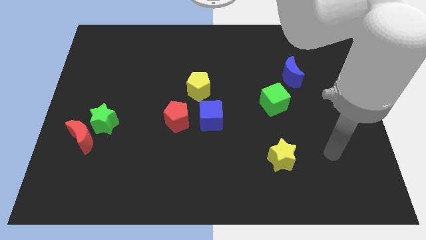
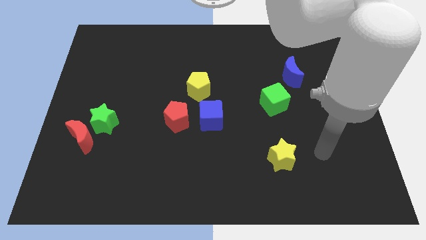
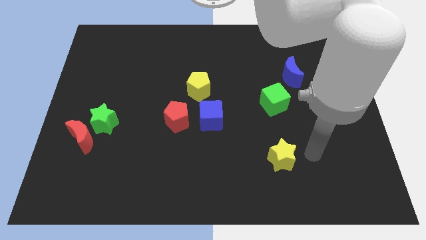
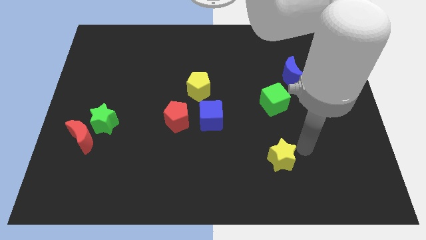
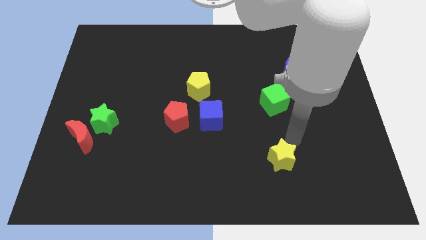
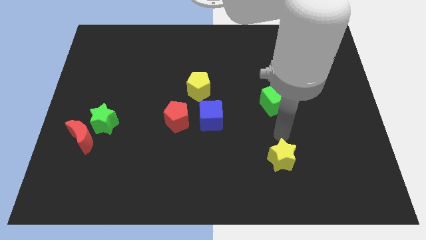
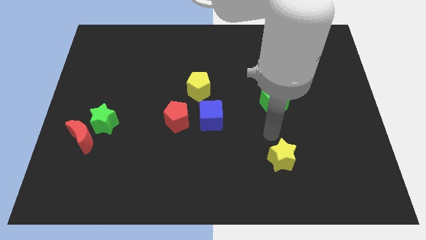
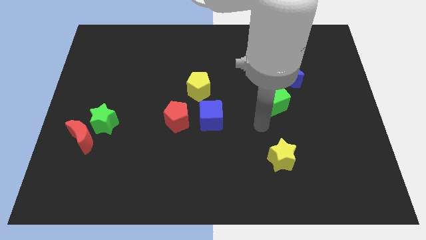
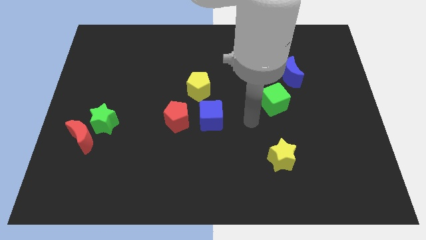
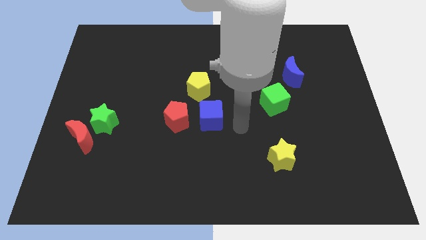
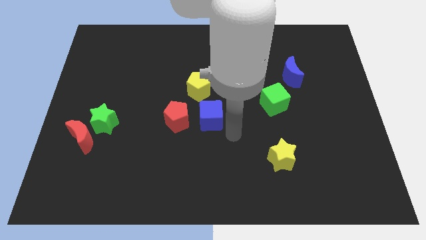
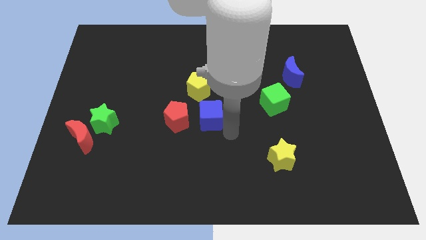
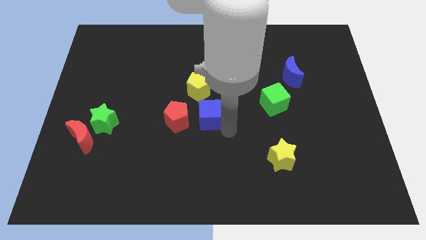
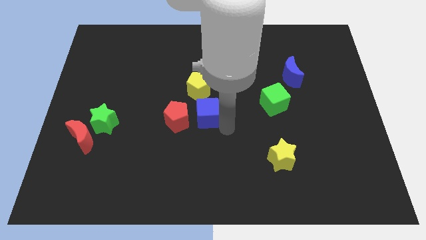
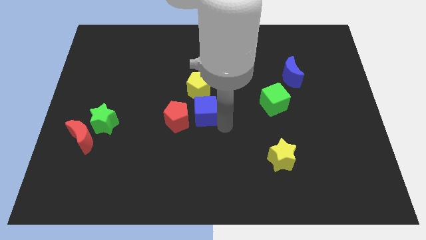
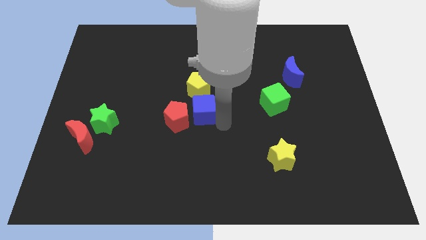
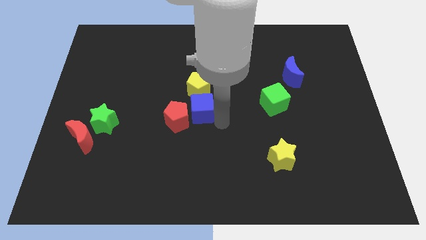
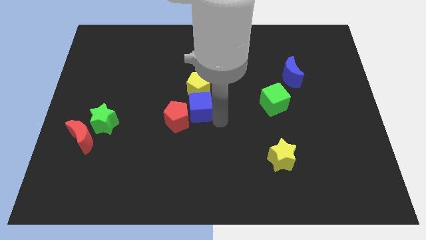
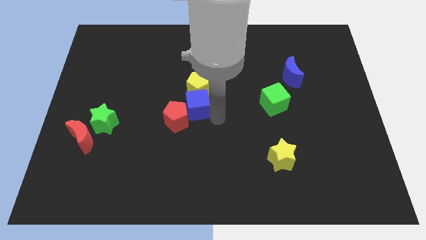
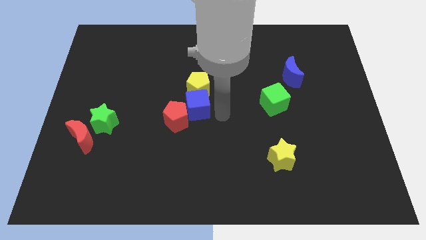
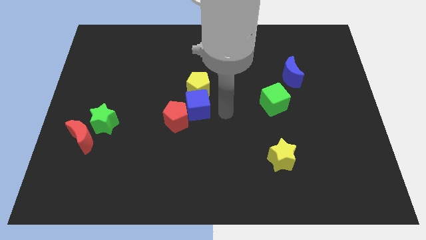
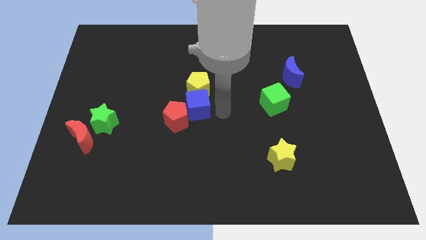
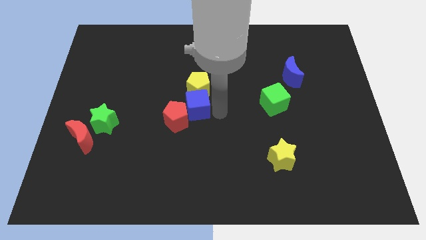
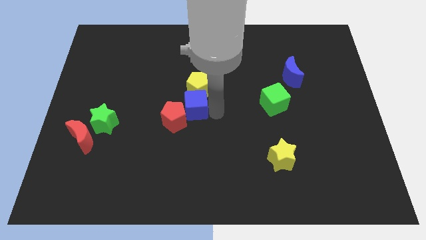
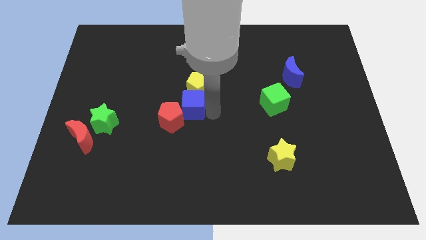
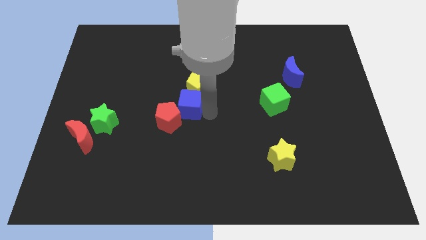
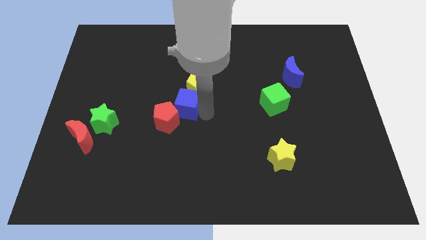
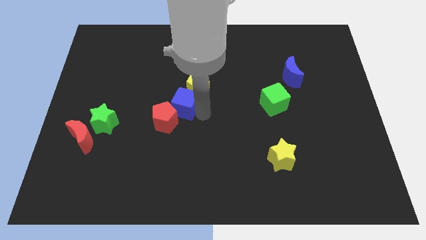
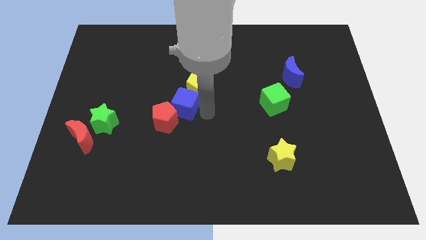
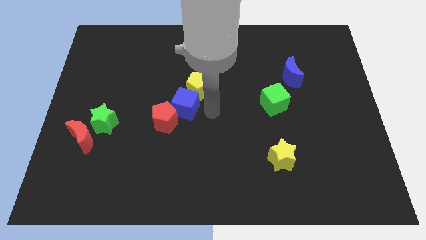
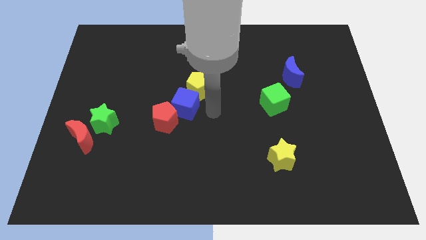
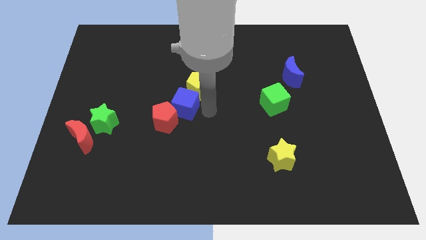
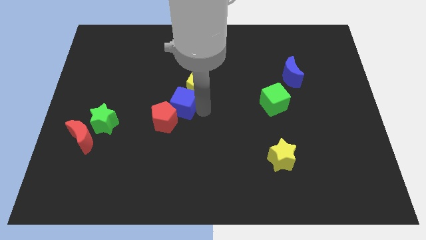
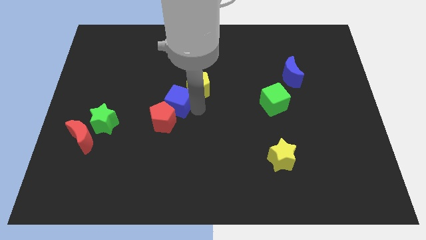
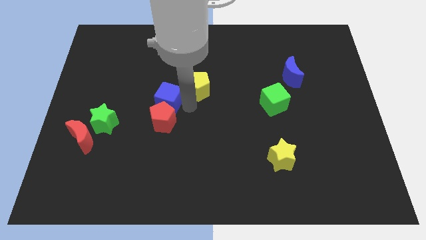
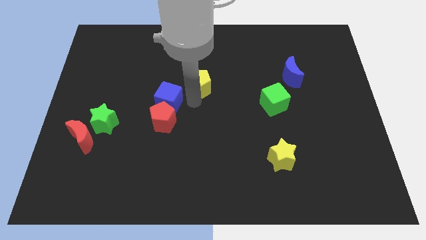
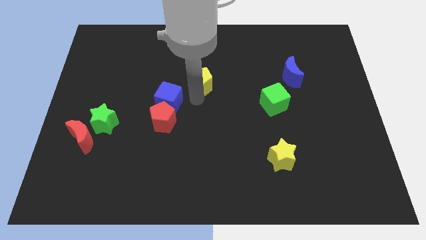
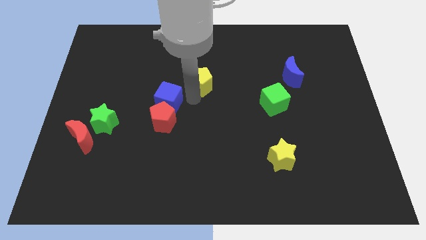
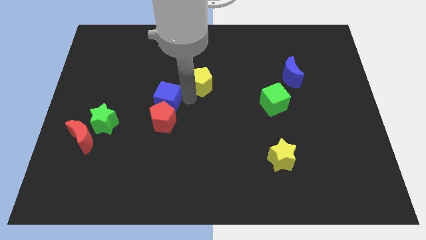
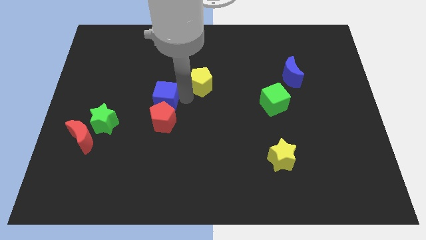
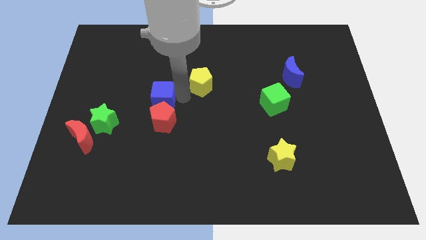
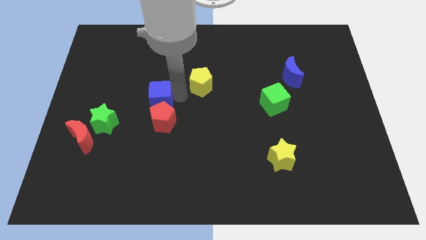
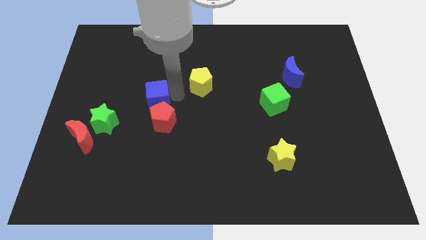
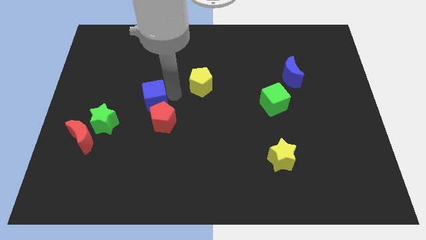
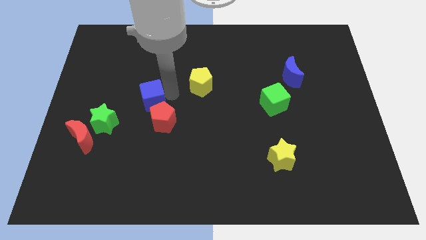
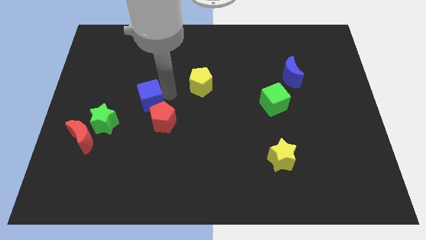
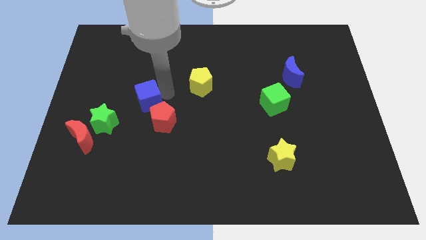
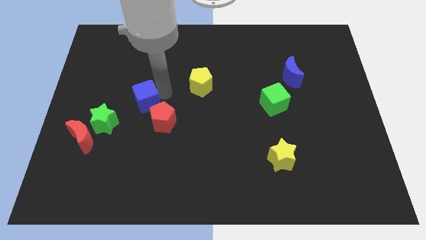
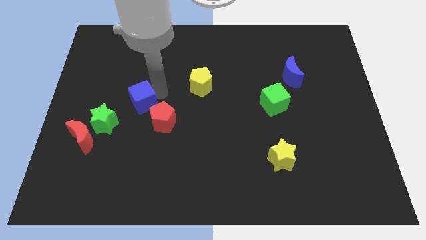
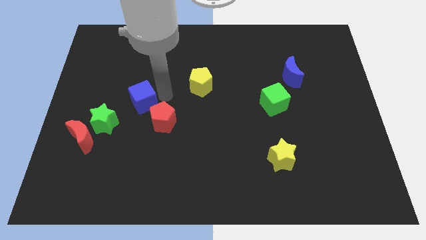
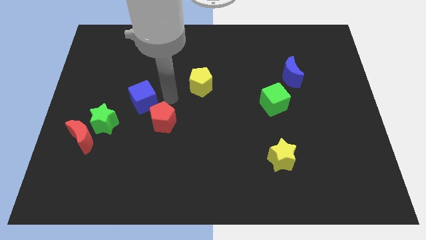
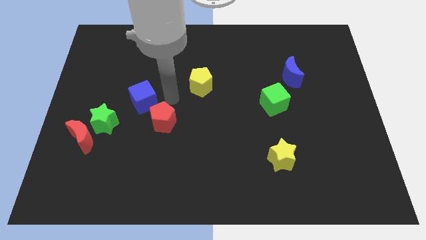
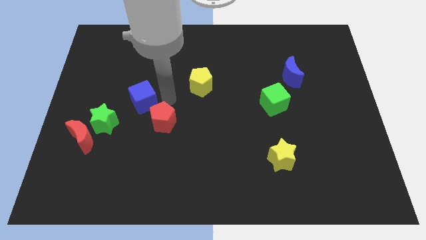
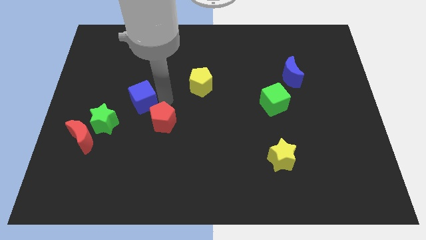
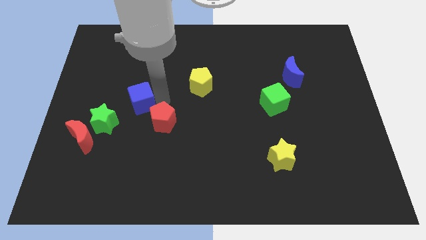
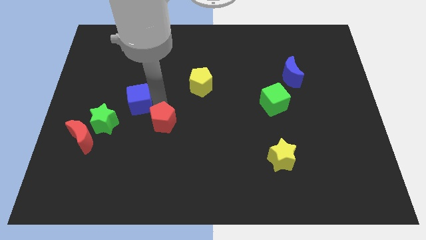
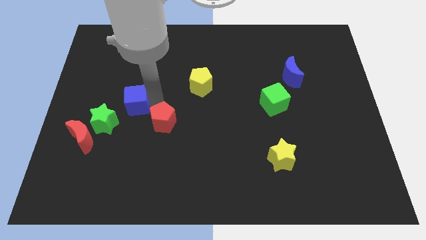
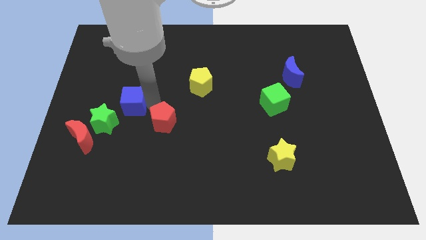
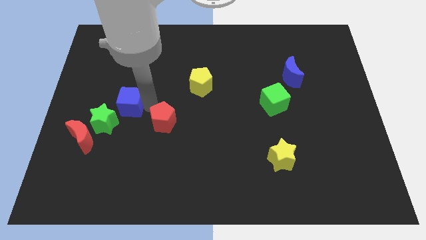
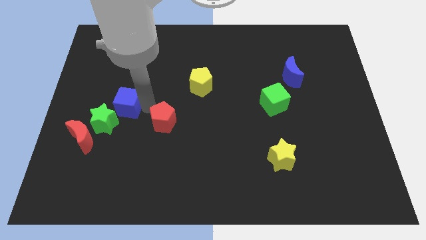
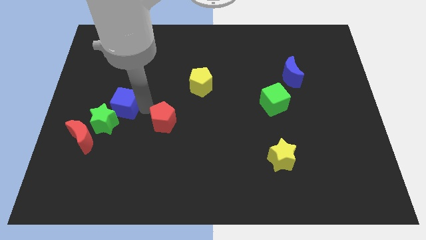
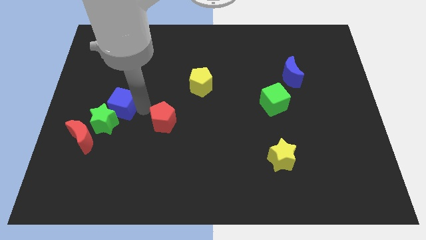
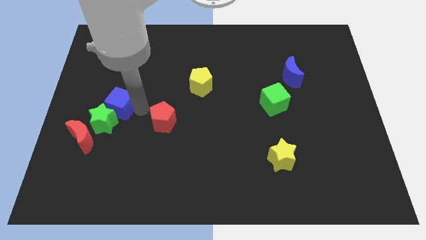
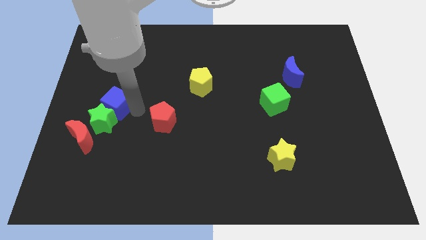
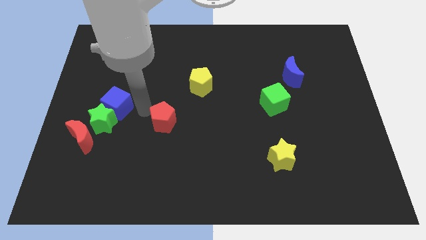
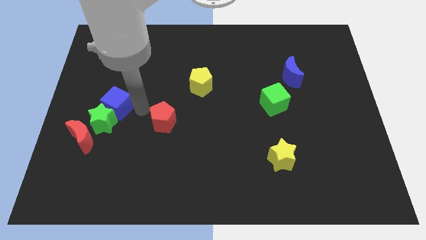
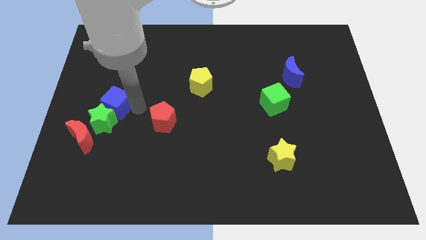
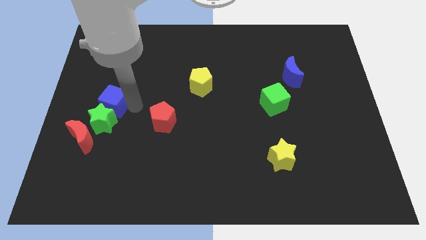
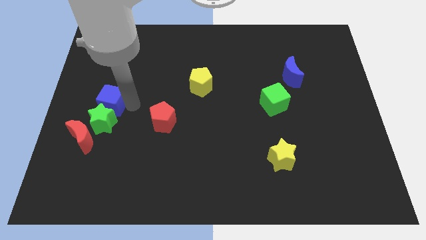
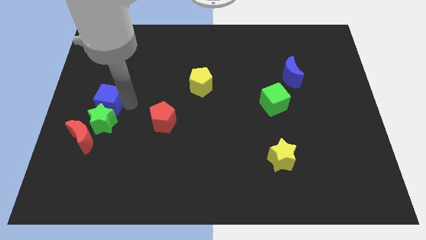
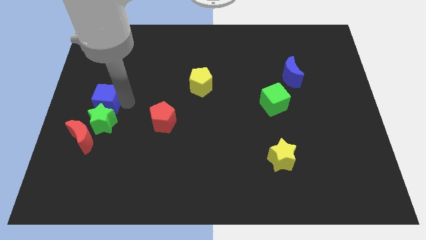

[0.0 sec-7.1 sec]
move the blue cube to the left side of the board
